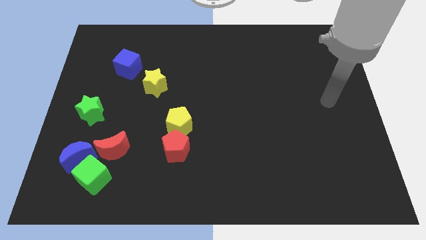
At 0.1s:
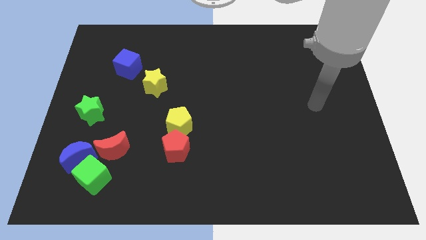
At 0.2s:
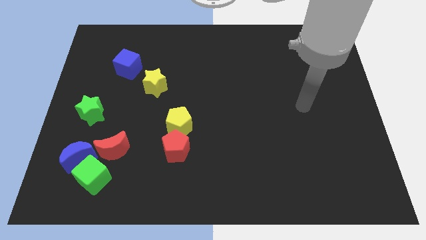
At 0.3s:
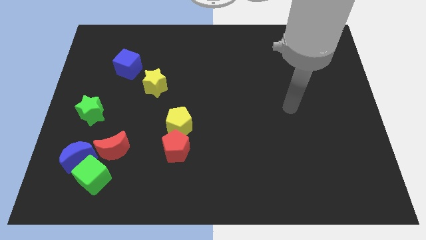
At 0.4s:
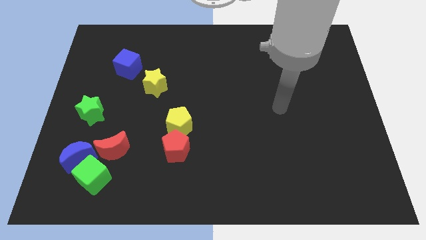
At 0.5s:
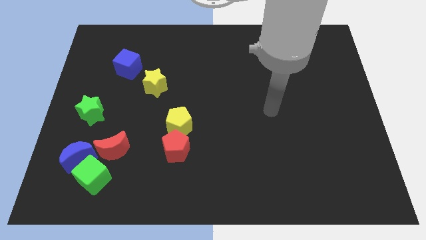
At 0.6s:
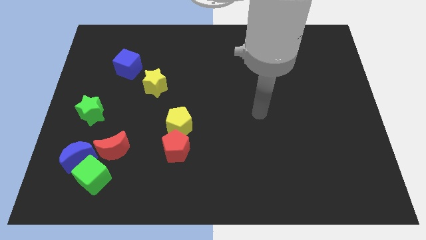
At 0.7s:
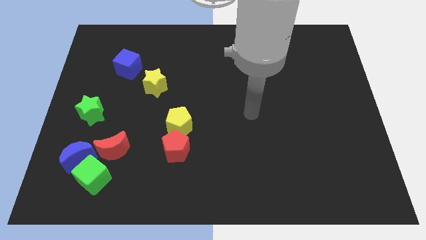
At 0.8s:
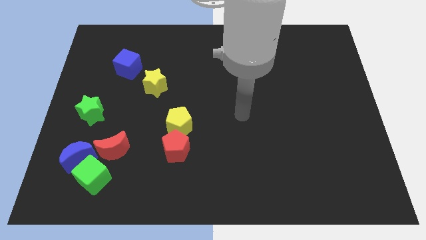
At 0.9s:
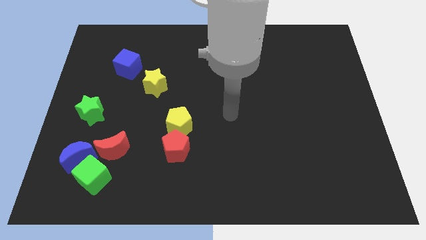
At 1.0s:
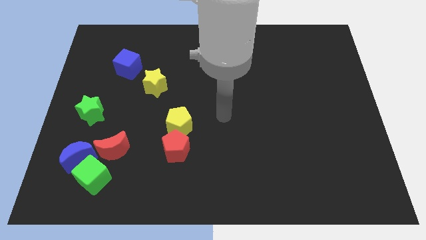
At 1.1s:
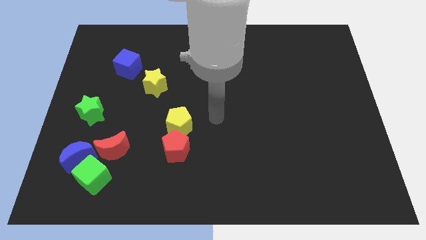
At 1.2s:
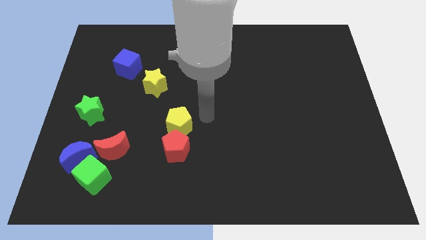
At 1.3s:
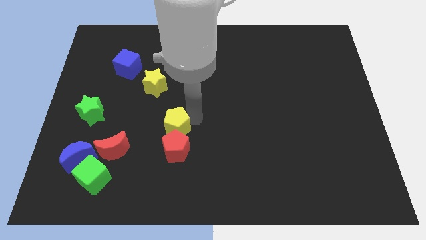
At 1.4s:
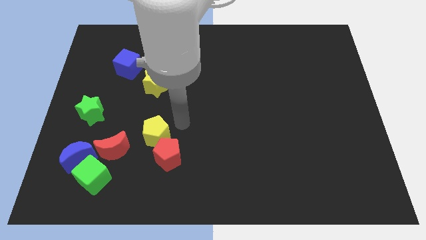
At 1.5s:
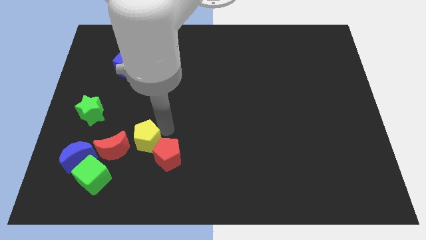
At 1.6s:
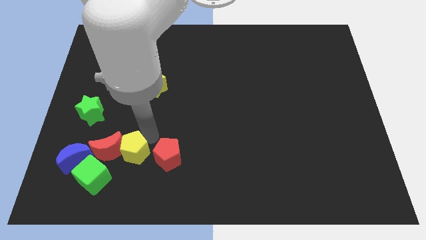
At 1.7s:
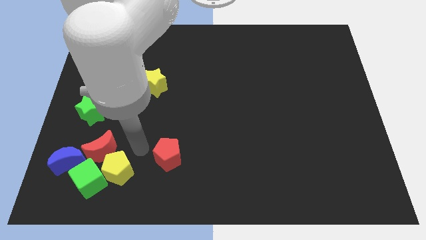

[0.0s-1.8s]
pull the red pentagon apart from the yellow pentagon

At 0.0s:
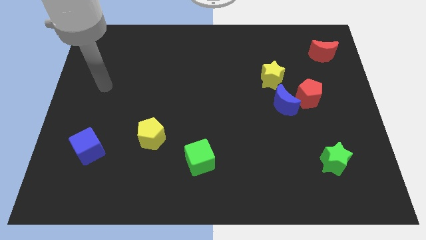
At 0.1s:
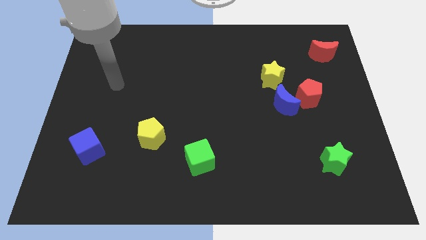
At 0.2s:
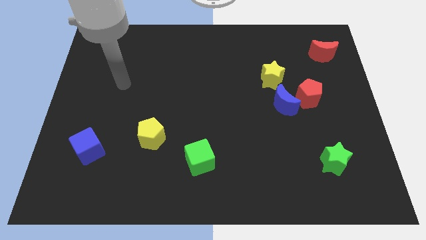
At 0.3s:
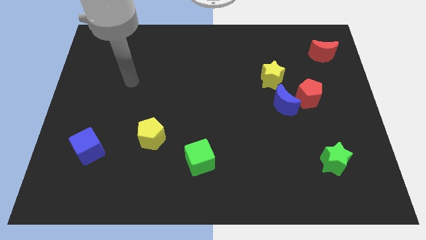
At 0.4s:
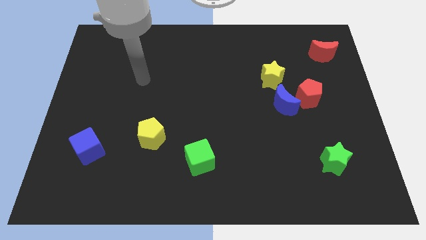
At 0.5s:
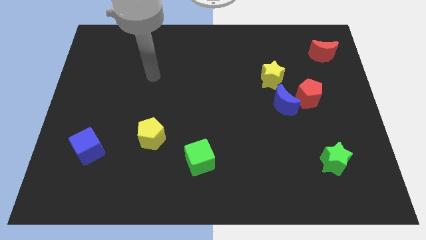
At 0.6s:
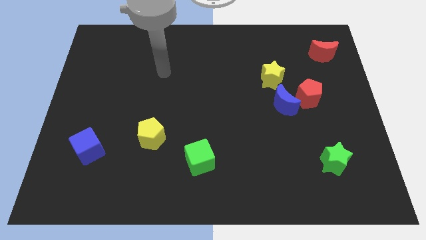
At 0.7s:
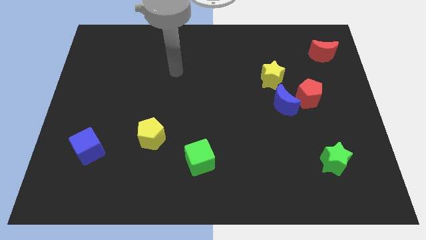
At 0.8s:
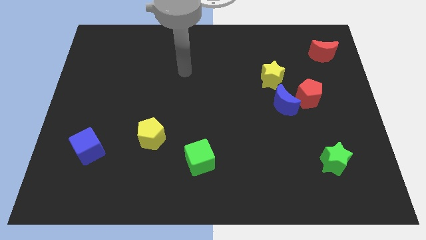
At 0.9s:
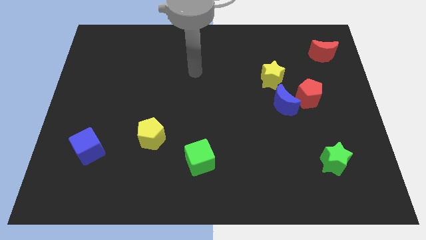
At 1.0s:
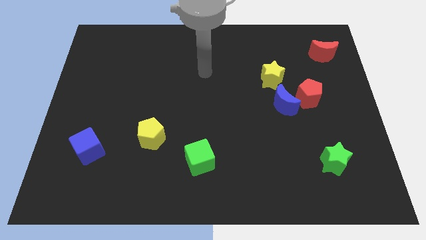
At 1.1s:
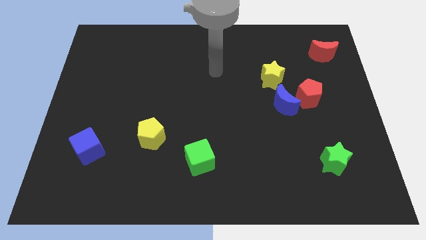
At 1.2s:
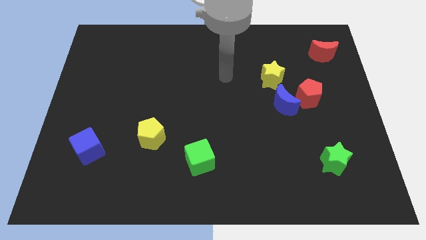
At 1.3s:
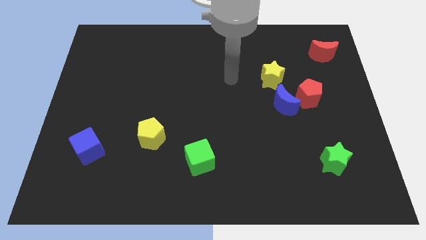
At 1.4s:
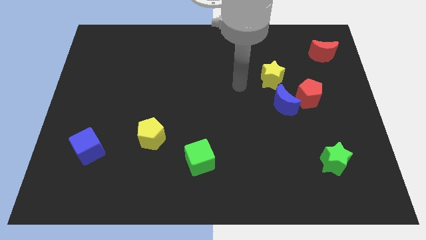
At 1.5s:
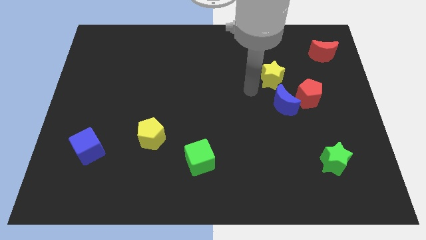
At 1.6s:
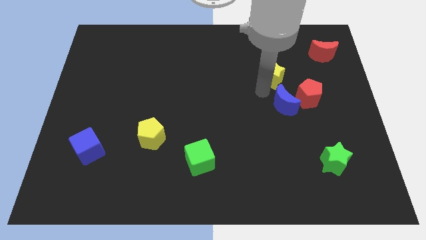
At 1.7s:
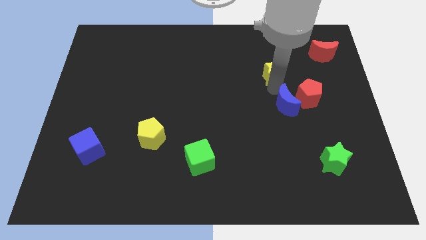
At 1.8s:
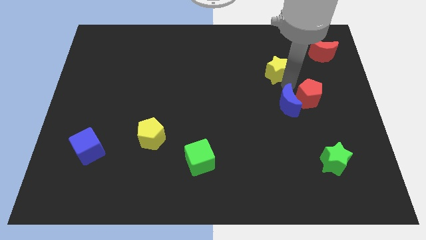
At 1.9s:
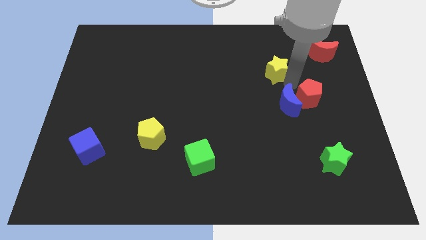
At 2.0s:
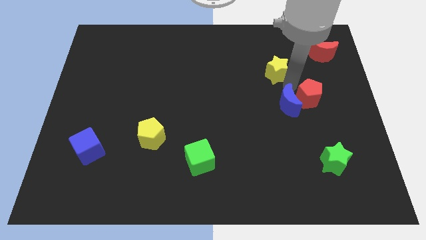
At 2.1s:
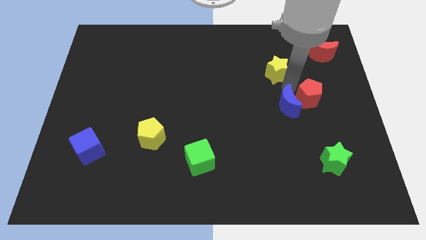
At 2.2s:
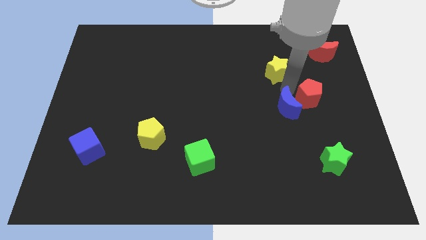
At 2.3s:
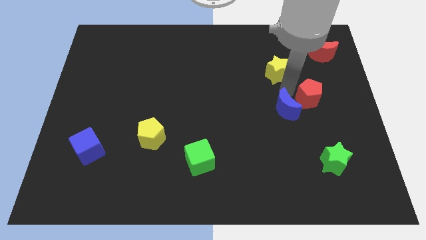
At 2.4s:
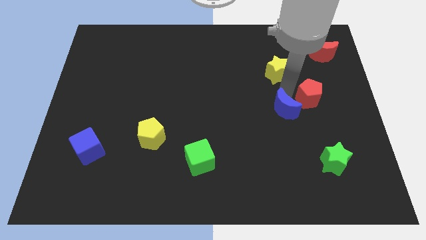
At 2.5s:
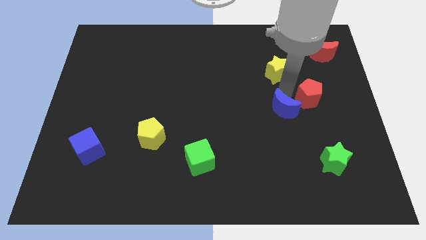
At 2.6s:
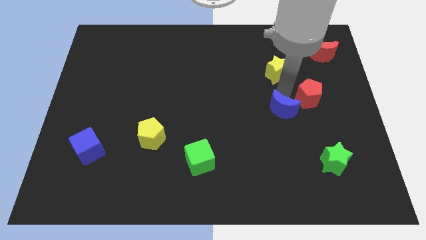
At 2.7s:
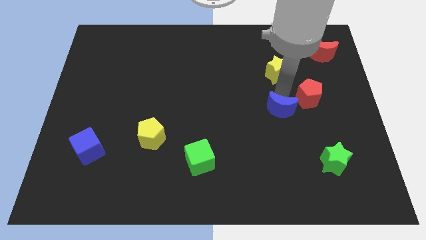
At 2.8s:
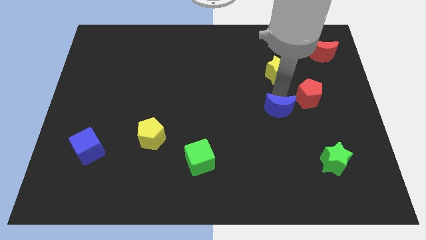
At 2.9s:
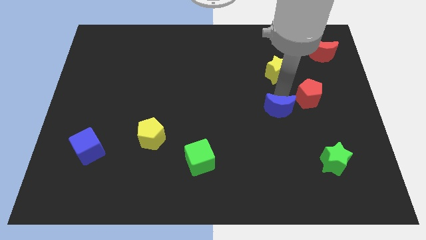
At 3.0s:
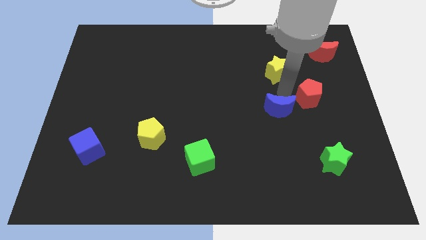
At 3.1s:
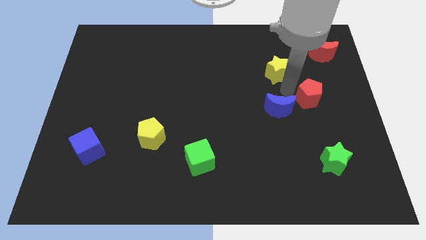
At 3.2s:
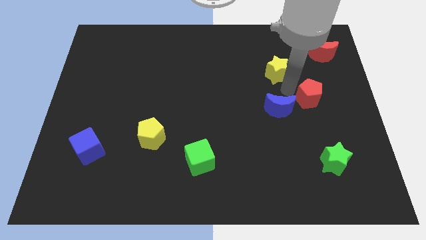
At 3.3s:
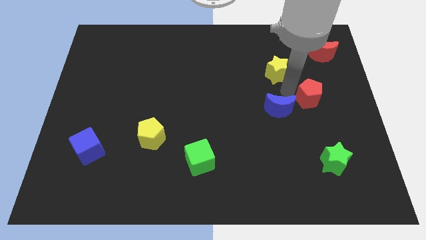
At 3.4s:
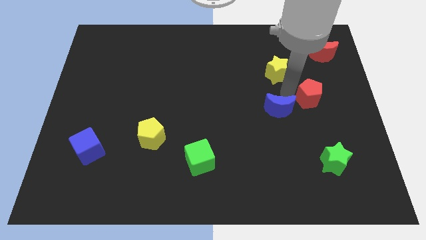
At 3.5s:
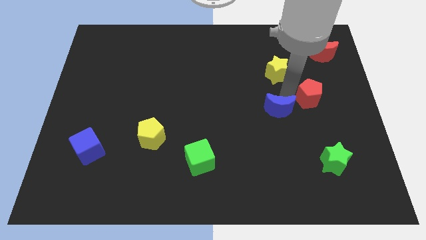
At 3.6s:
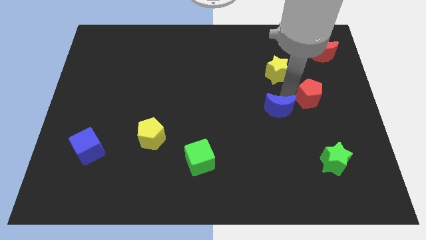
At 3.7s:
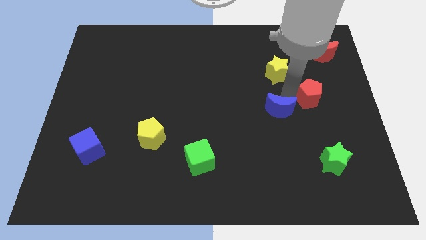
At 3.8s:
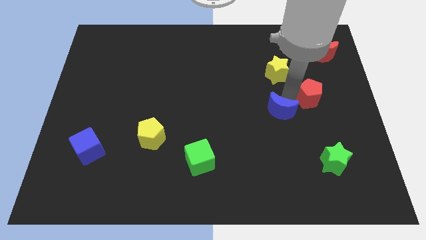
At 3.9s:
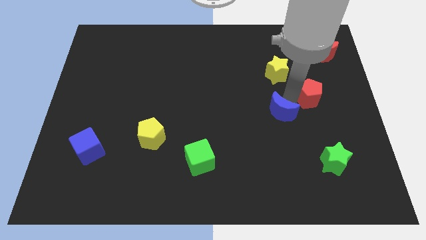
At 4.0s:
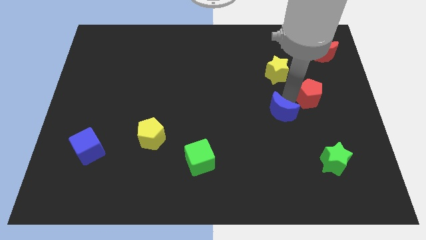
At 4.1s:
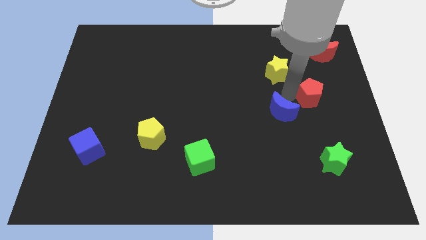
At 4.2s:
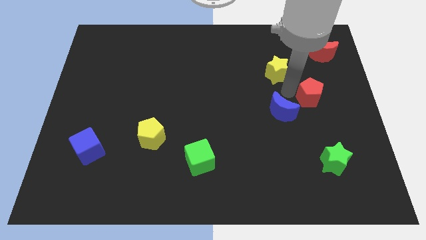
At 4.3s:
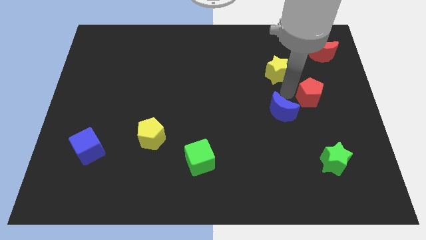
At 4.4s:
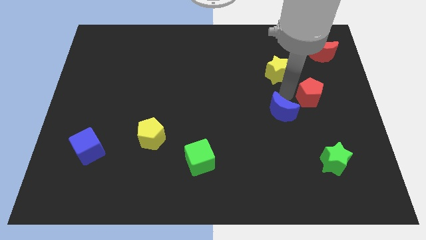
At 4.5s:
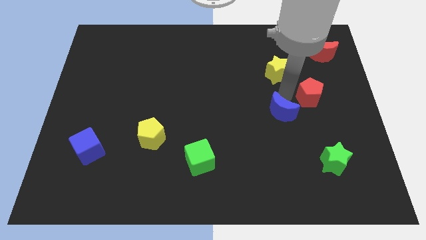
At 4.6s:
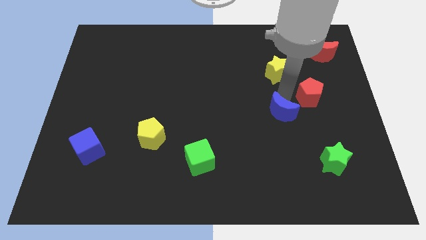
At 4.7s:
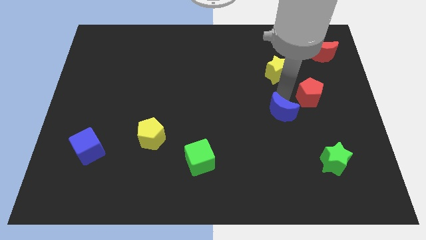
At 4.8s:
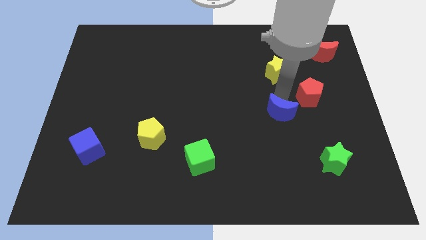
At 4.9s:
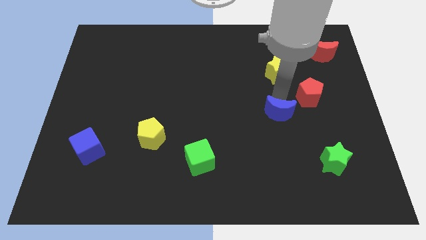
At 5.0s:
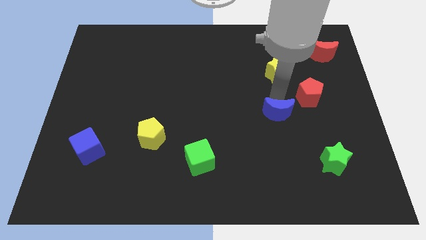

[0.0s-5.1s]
pull the blue moon apart from the red pentagon and yellow star

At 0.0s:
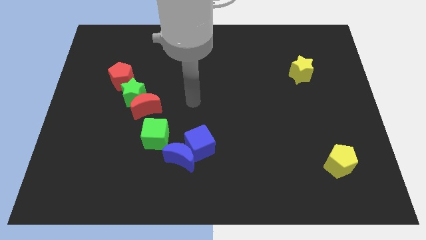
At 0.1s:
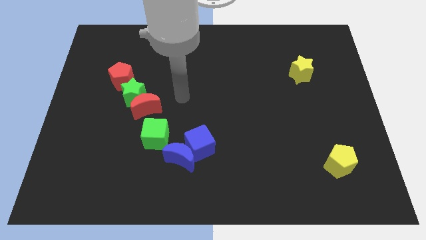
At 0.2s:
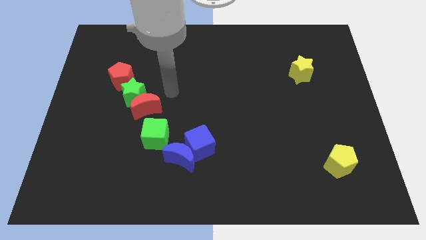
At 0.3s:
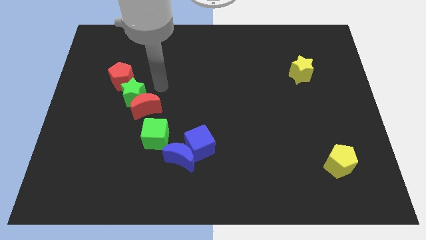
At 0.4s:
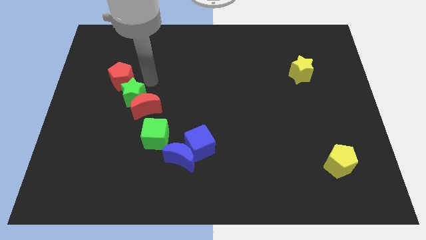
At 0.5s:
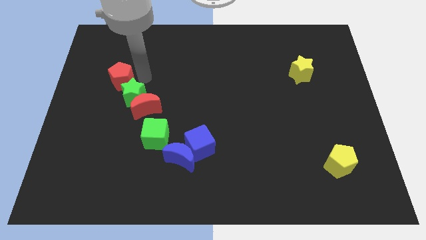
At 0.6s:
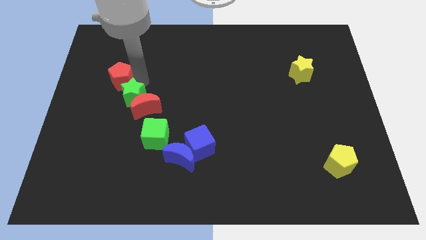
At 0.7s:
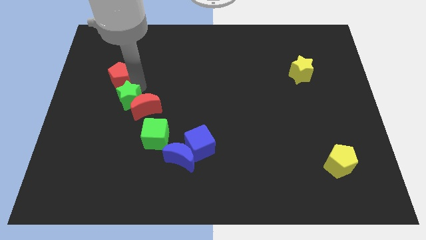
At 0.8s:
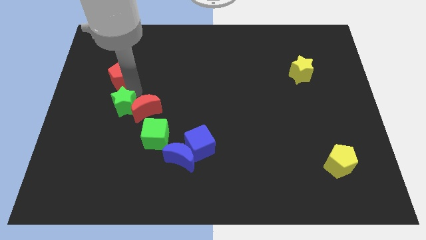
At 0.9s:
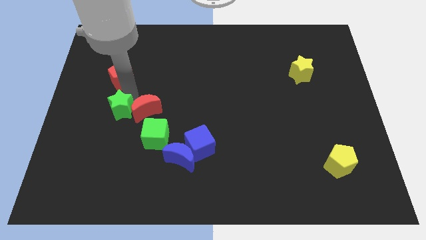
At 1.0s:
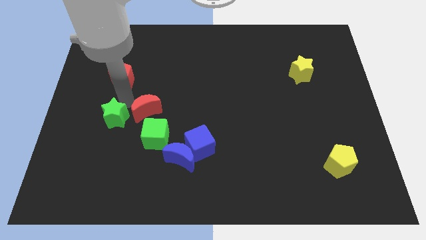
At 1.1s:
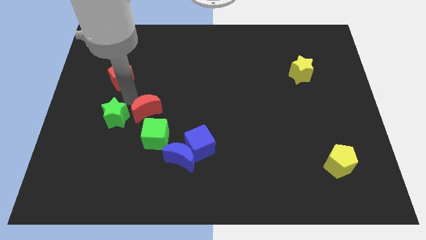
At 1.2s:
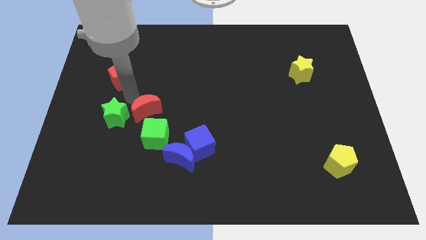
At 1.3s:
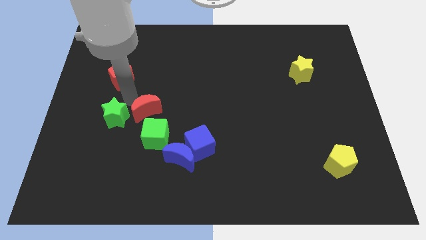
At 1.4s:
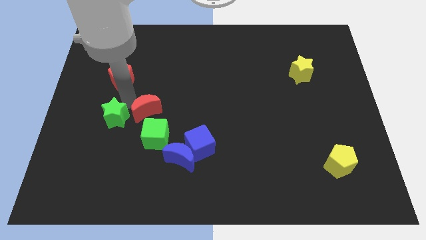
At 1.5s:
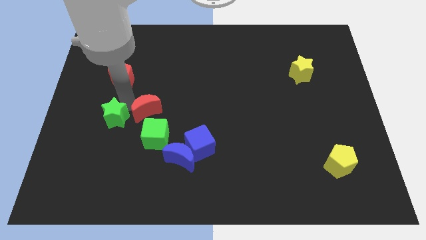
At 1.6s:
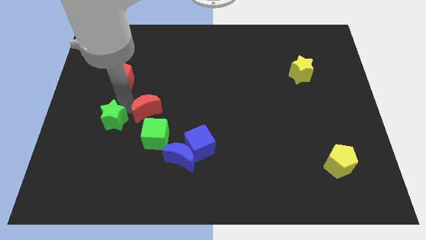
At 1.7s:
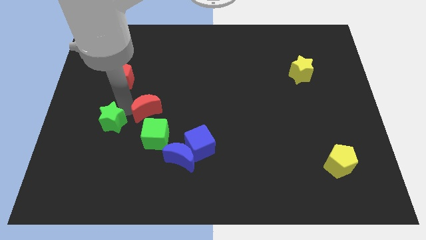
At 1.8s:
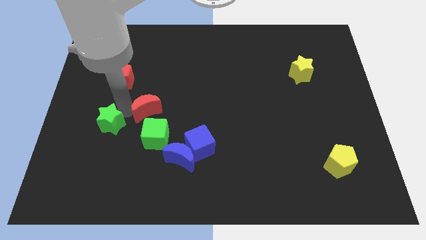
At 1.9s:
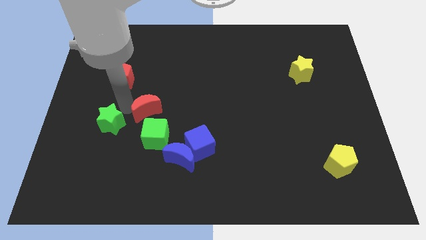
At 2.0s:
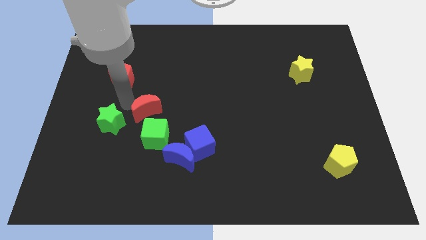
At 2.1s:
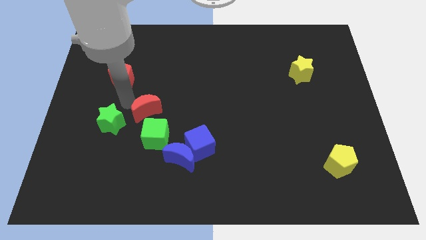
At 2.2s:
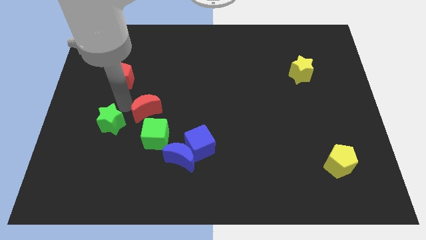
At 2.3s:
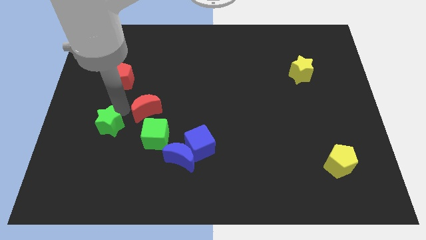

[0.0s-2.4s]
pull the green star apart from the red moon and red pentagon

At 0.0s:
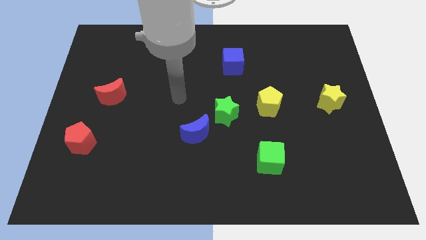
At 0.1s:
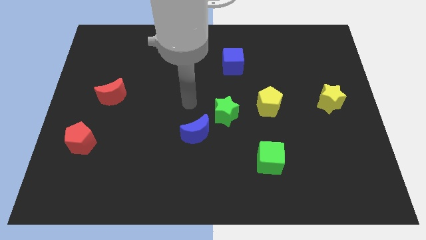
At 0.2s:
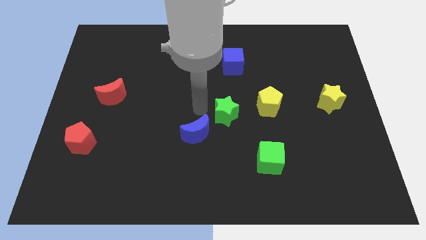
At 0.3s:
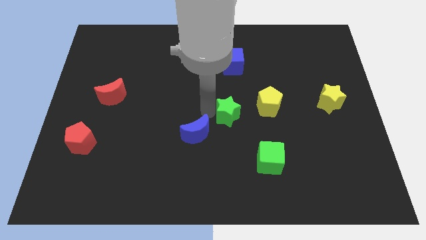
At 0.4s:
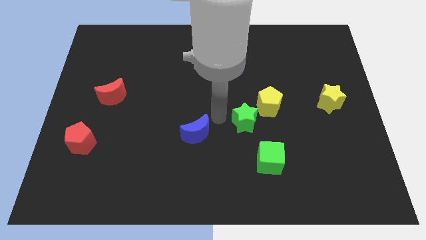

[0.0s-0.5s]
pull the blue moon apart from the green star
